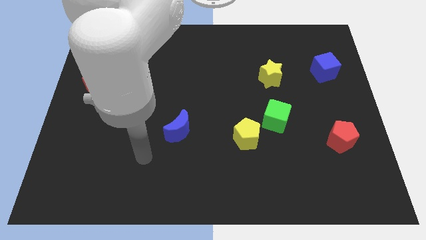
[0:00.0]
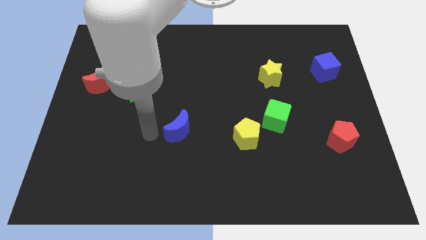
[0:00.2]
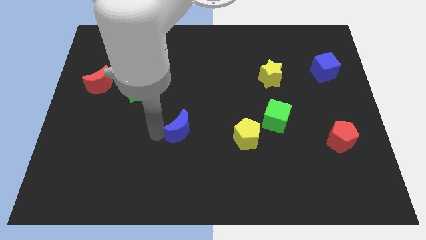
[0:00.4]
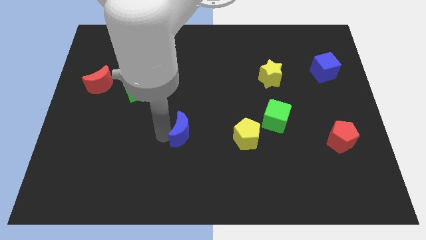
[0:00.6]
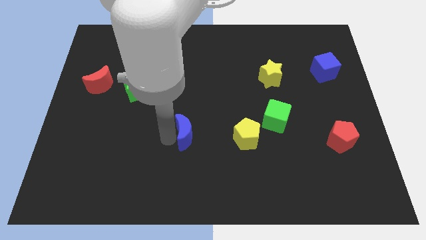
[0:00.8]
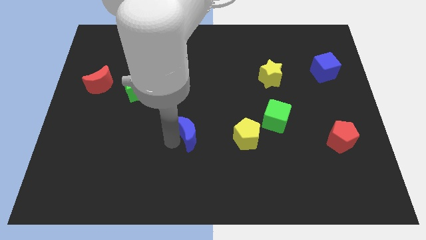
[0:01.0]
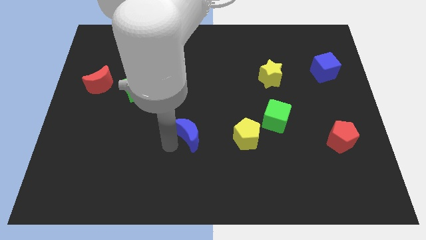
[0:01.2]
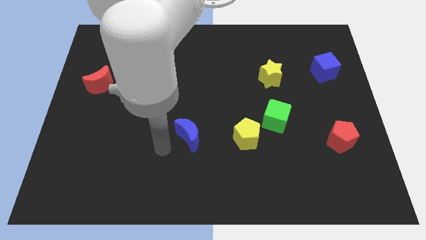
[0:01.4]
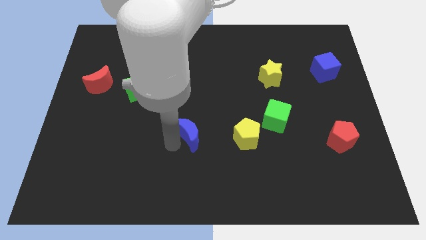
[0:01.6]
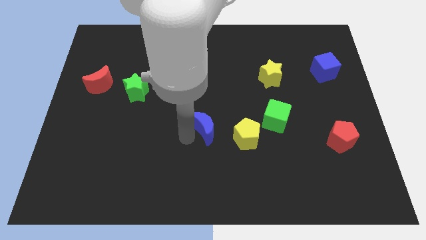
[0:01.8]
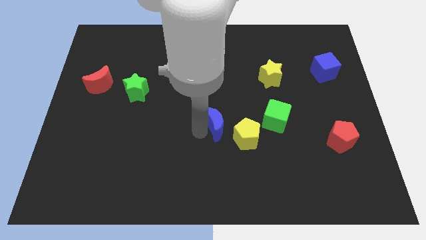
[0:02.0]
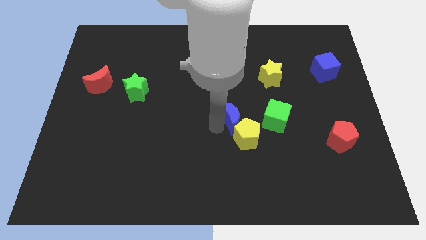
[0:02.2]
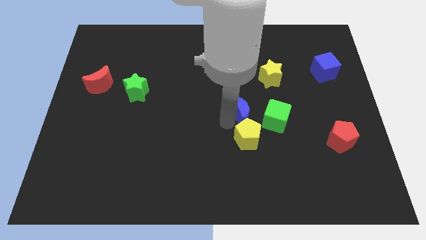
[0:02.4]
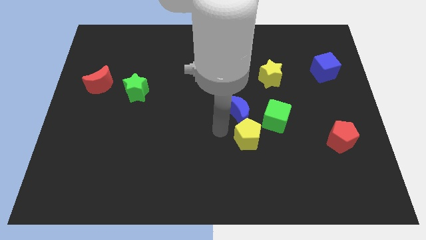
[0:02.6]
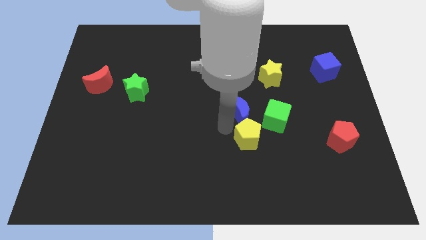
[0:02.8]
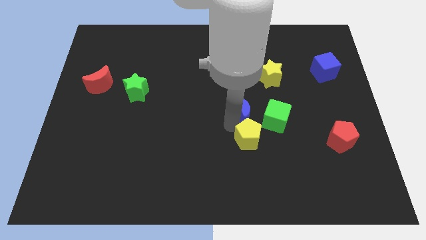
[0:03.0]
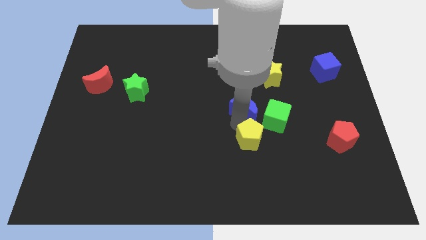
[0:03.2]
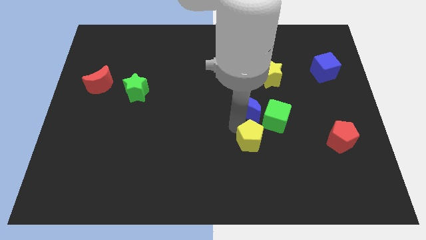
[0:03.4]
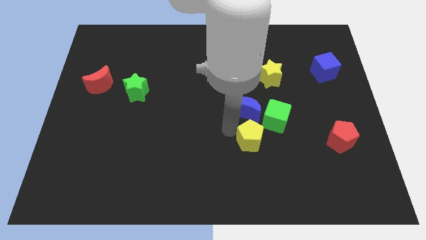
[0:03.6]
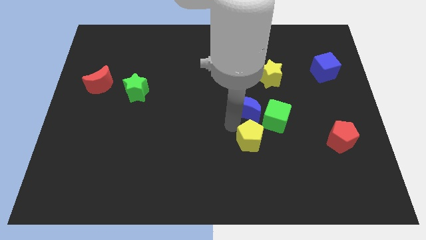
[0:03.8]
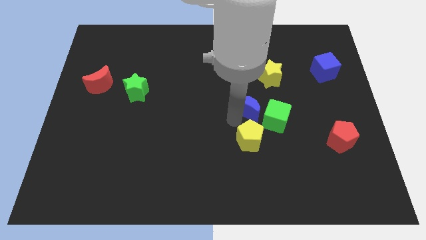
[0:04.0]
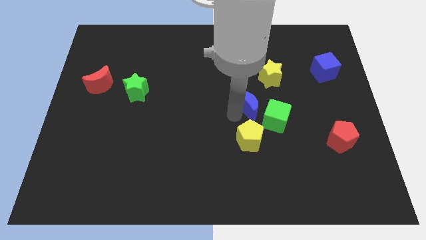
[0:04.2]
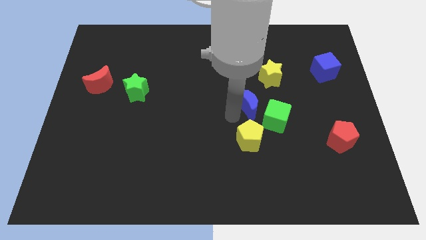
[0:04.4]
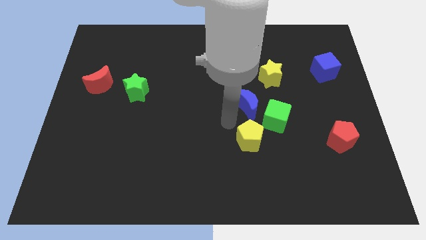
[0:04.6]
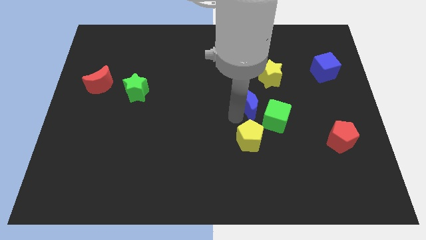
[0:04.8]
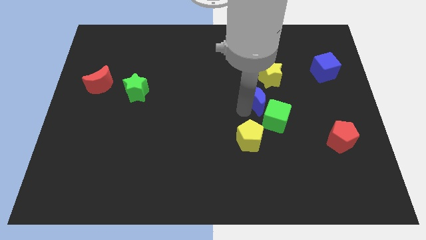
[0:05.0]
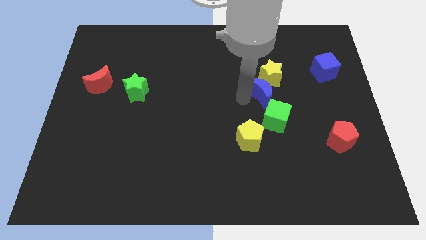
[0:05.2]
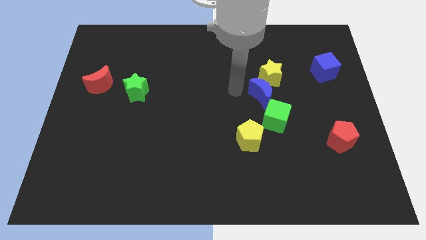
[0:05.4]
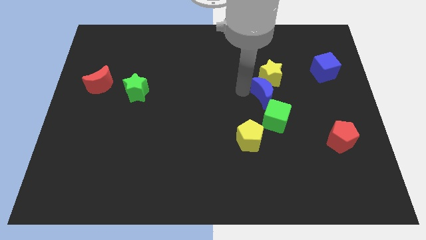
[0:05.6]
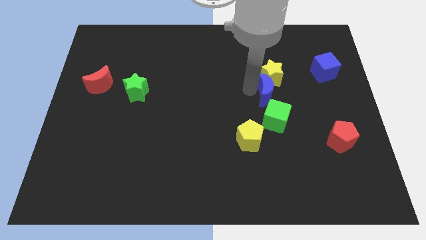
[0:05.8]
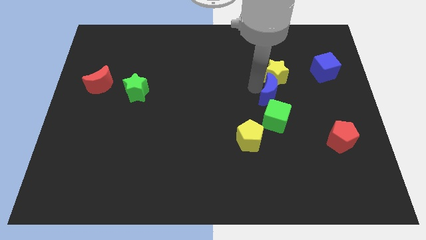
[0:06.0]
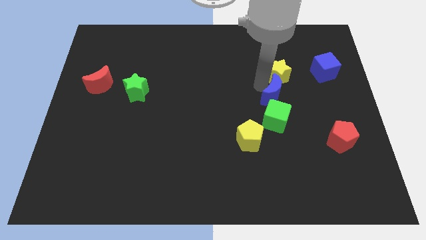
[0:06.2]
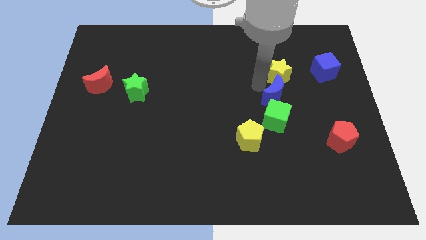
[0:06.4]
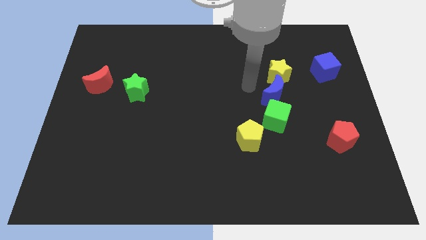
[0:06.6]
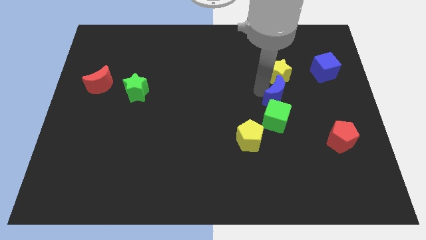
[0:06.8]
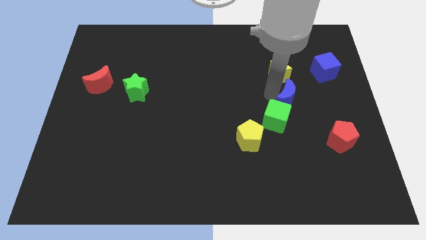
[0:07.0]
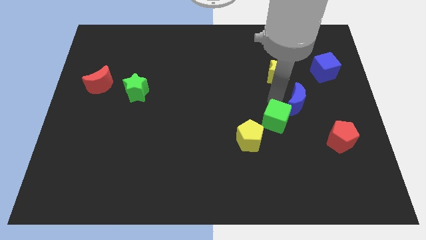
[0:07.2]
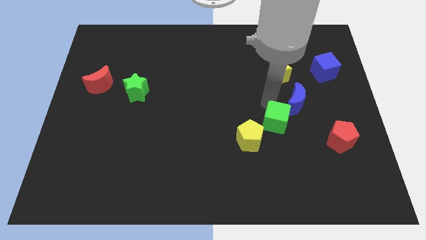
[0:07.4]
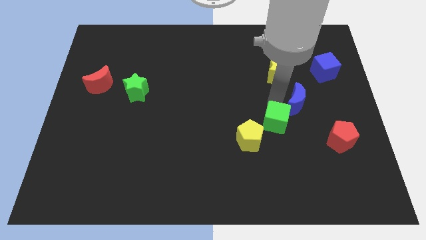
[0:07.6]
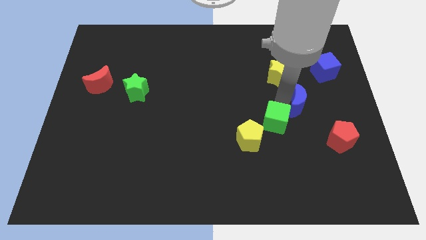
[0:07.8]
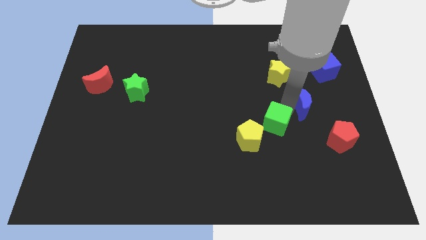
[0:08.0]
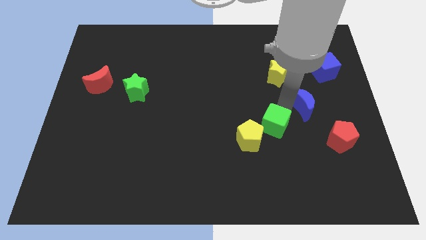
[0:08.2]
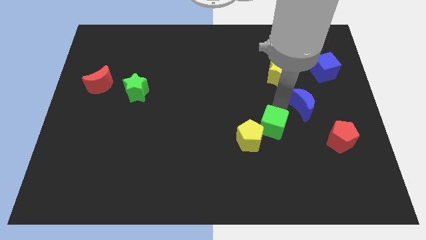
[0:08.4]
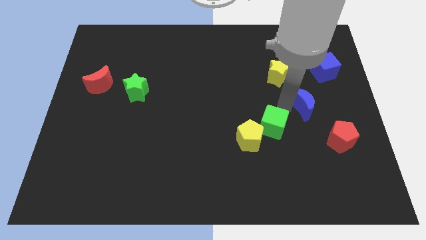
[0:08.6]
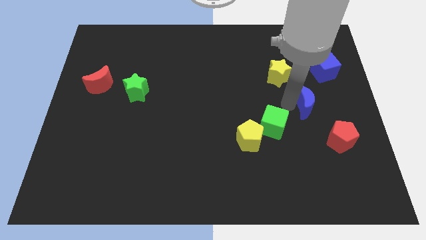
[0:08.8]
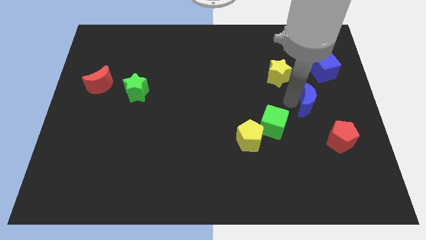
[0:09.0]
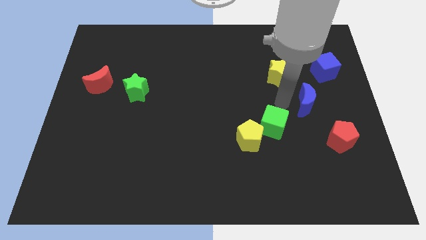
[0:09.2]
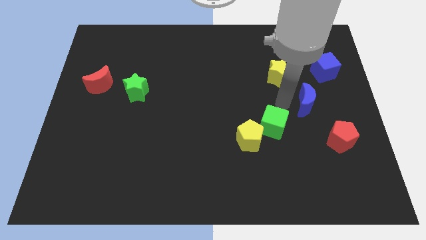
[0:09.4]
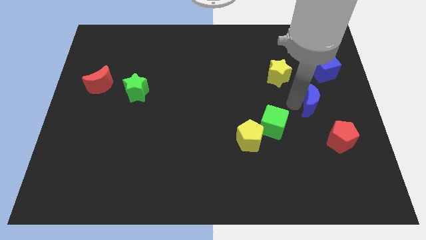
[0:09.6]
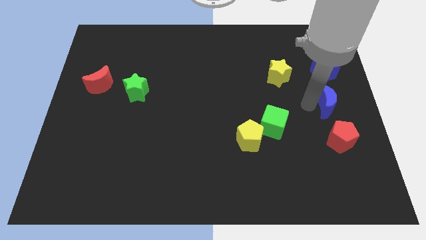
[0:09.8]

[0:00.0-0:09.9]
slide the blue moon to the center right
